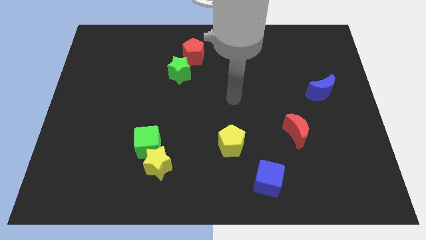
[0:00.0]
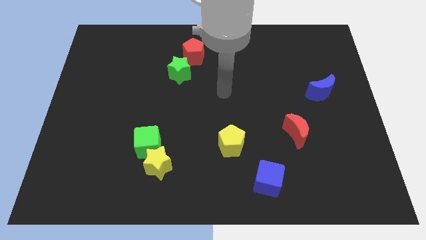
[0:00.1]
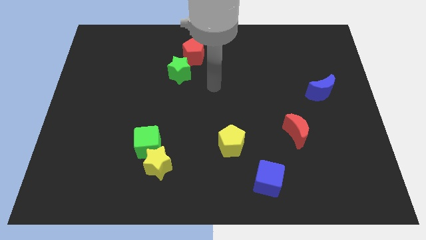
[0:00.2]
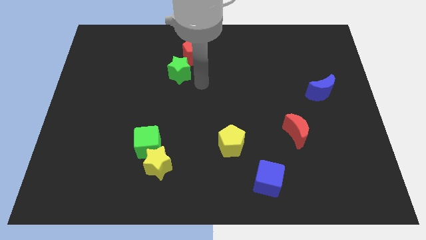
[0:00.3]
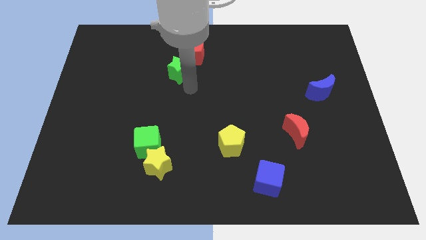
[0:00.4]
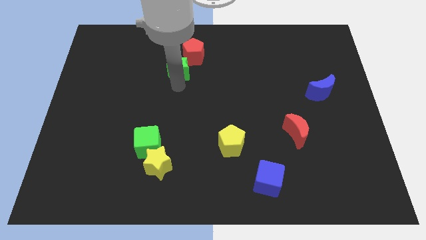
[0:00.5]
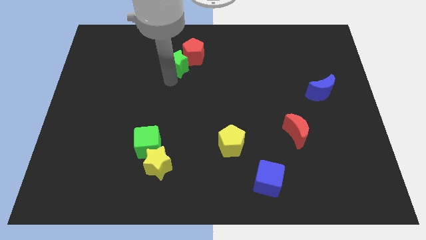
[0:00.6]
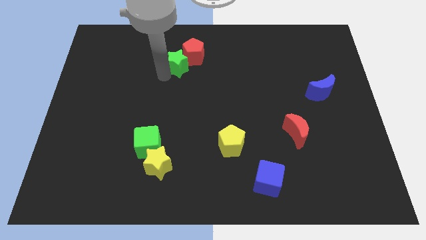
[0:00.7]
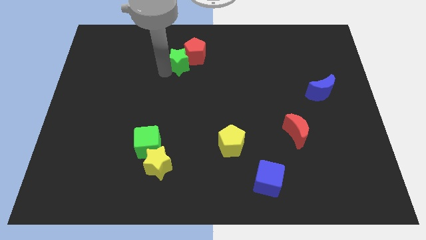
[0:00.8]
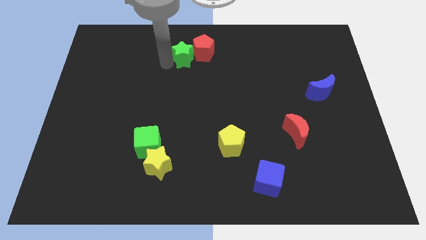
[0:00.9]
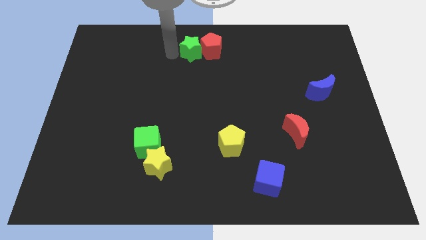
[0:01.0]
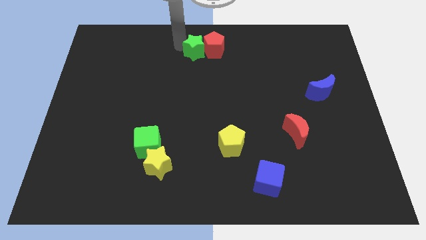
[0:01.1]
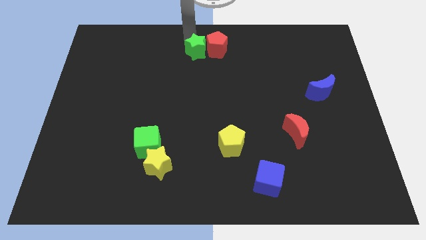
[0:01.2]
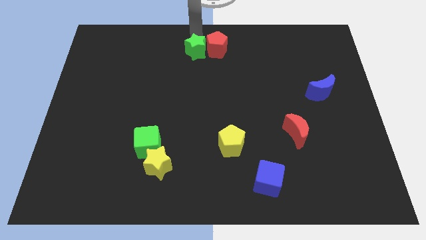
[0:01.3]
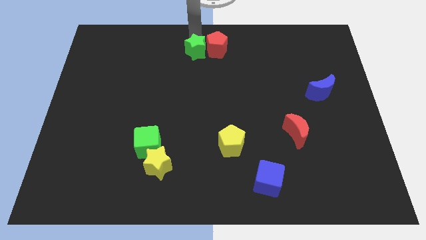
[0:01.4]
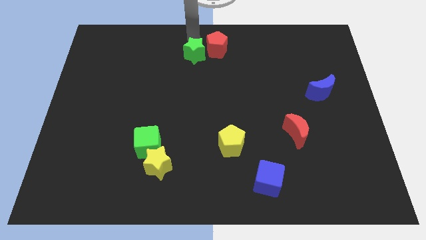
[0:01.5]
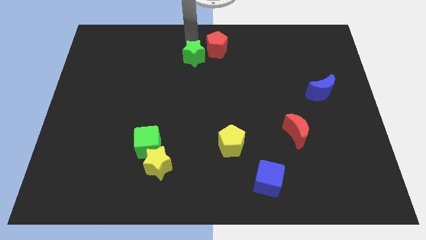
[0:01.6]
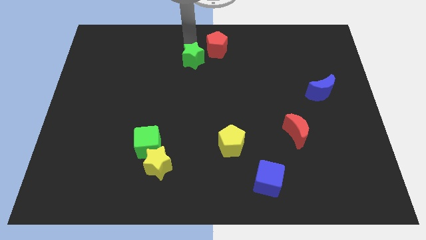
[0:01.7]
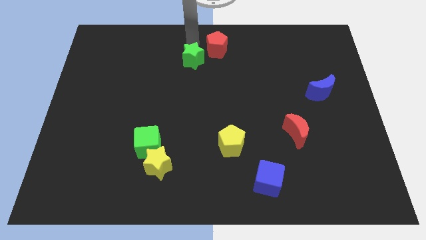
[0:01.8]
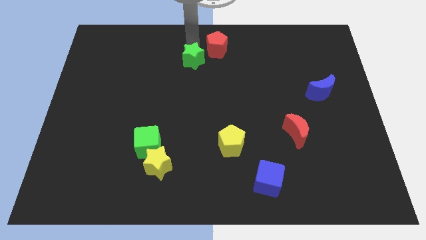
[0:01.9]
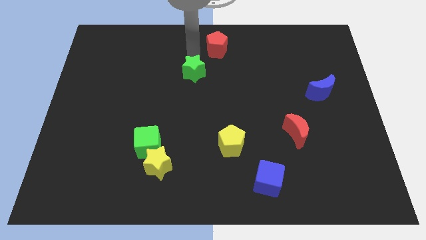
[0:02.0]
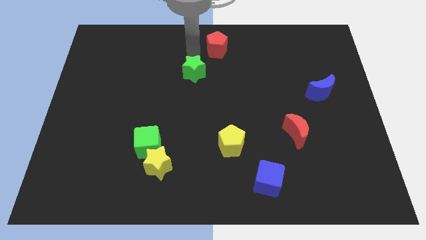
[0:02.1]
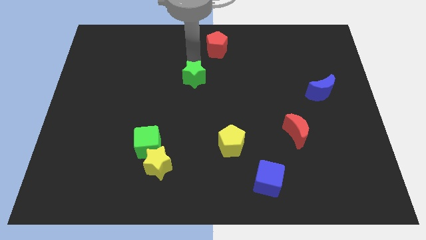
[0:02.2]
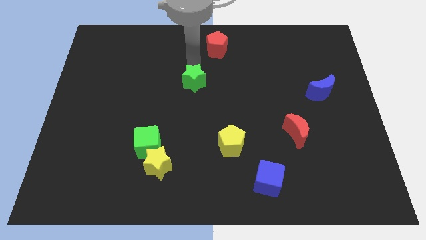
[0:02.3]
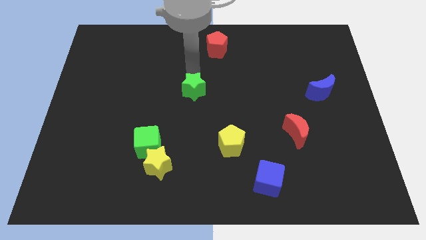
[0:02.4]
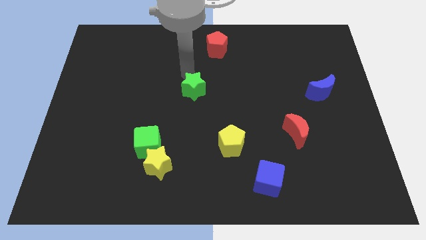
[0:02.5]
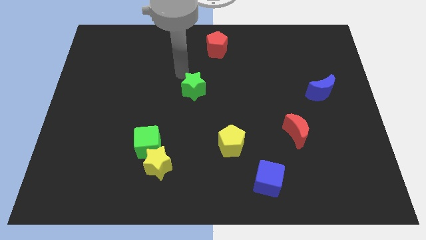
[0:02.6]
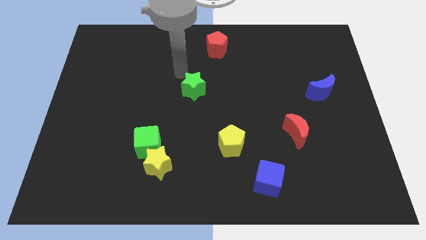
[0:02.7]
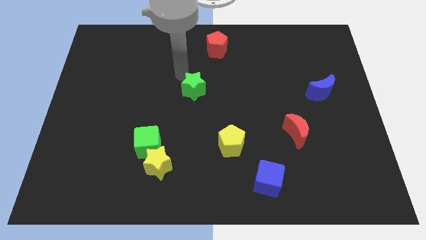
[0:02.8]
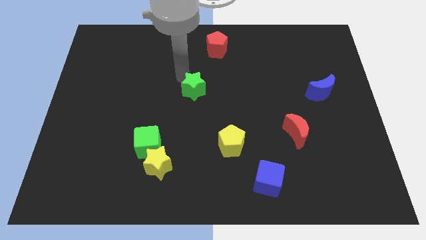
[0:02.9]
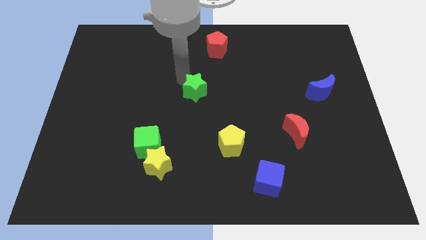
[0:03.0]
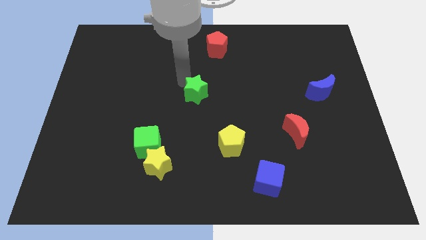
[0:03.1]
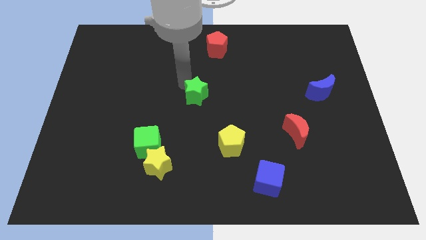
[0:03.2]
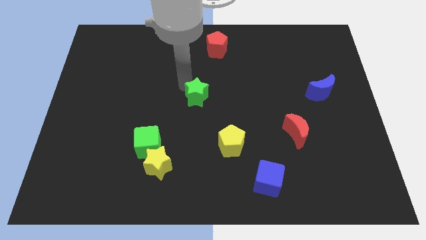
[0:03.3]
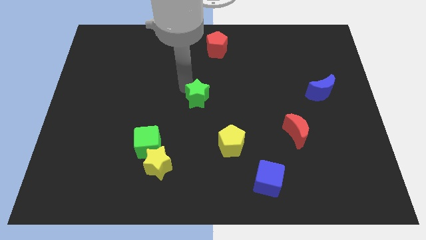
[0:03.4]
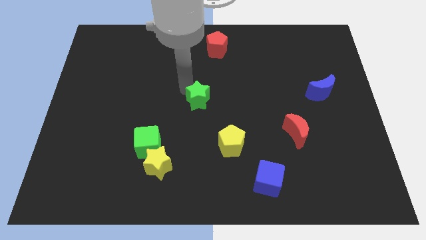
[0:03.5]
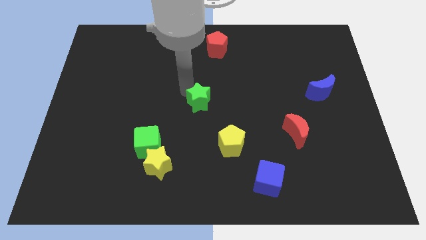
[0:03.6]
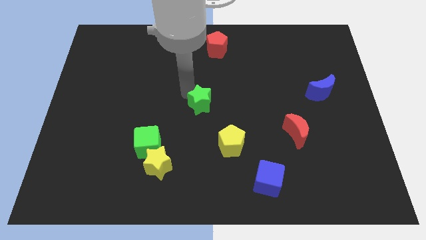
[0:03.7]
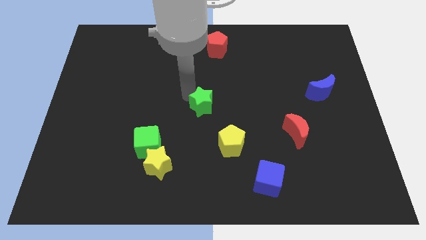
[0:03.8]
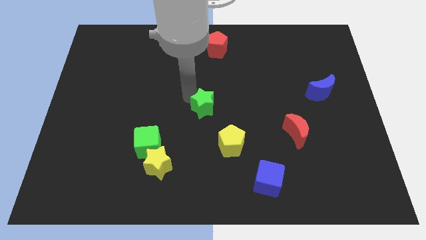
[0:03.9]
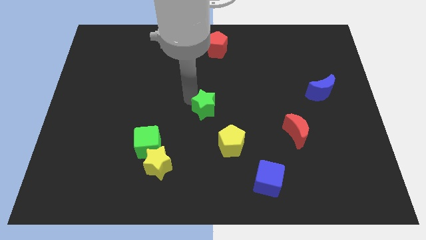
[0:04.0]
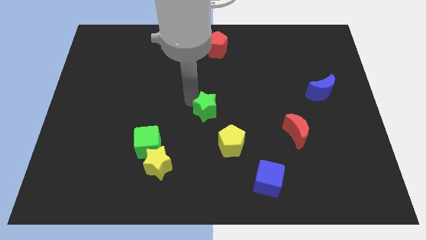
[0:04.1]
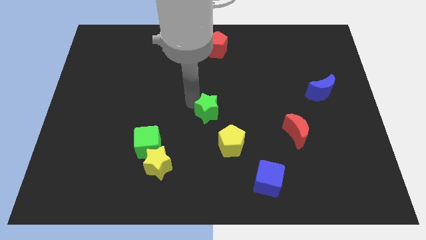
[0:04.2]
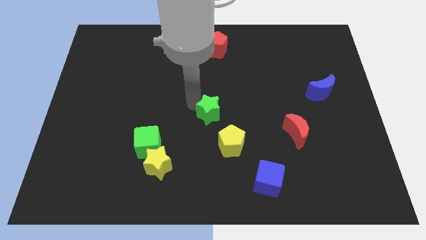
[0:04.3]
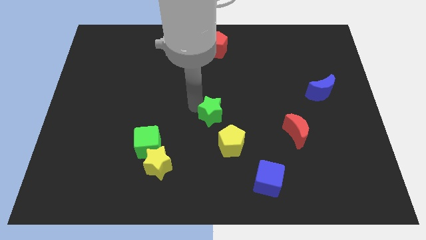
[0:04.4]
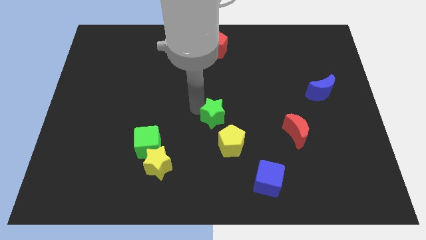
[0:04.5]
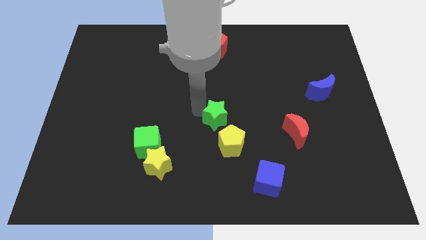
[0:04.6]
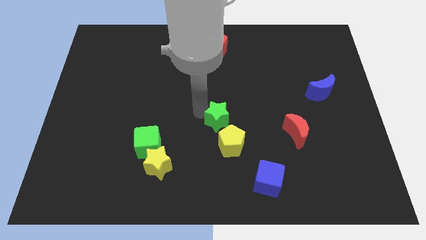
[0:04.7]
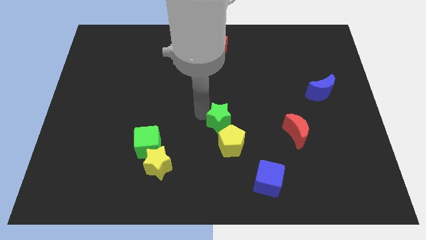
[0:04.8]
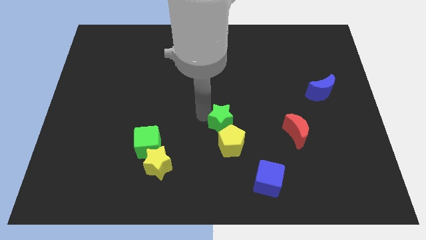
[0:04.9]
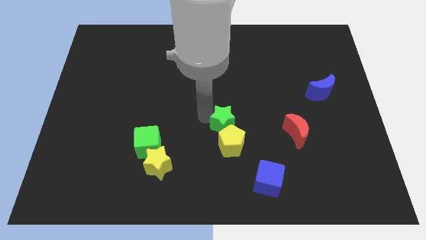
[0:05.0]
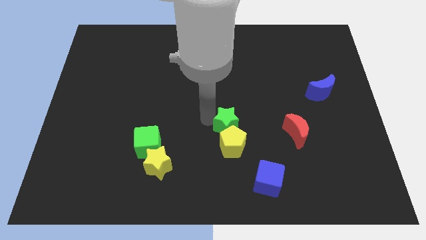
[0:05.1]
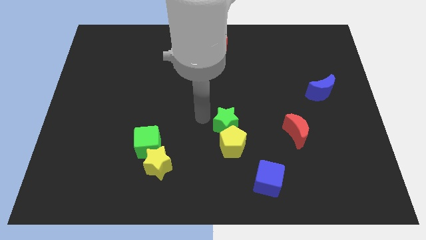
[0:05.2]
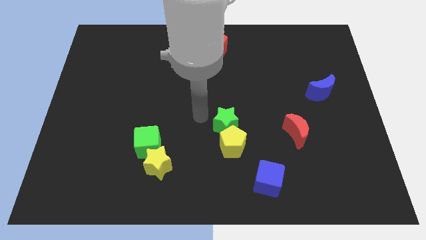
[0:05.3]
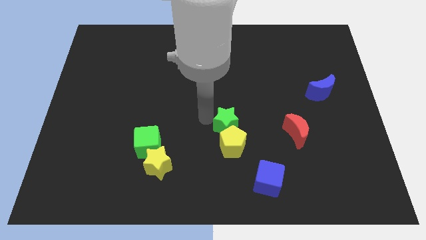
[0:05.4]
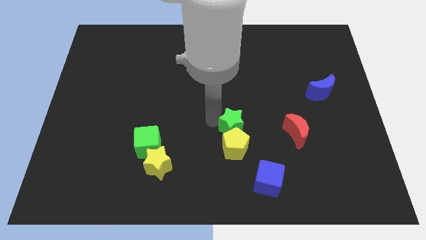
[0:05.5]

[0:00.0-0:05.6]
push the green star downwards and to the right

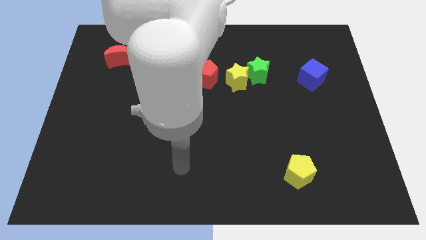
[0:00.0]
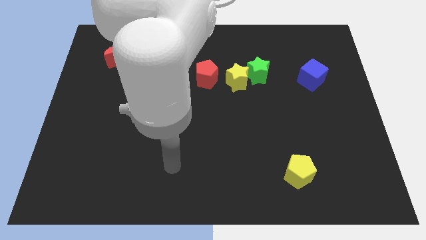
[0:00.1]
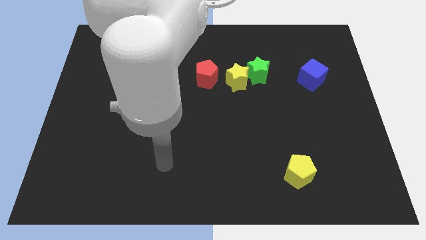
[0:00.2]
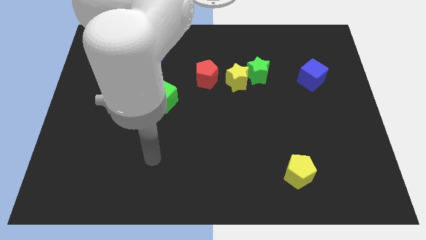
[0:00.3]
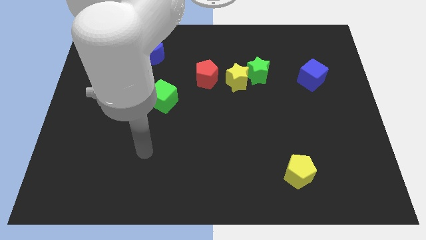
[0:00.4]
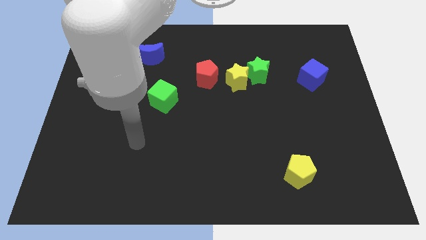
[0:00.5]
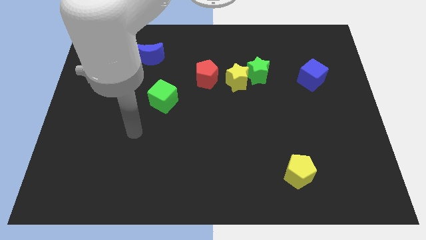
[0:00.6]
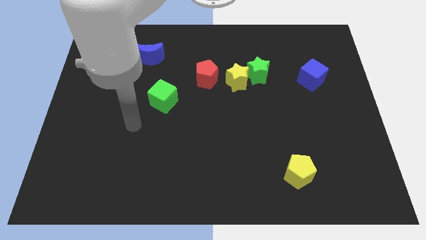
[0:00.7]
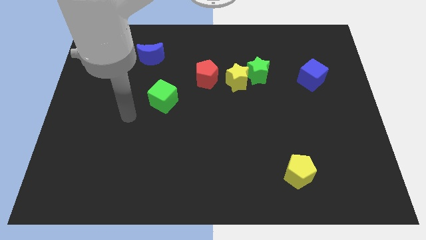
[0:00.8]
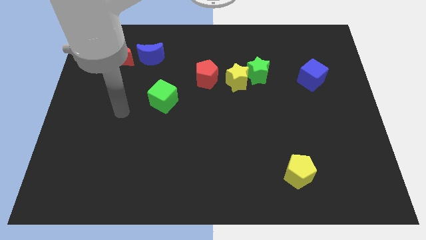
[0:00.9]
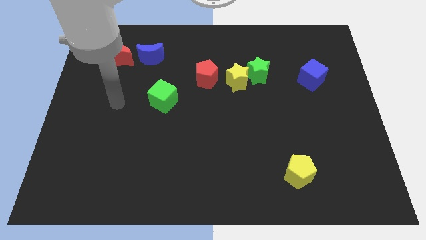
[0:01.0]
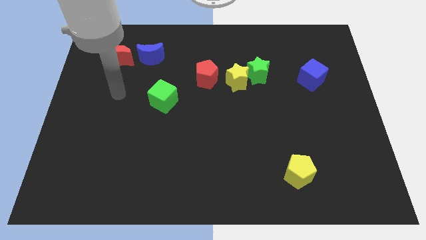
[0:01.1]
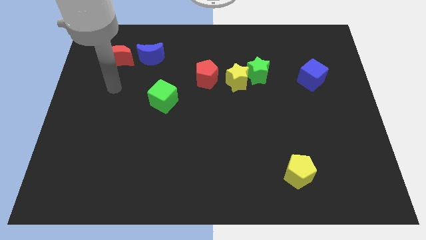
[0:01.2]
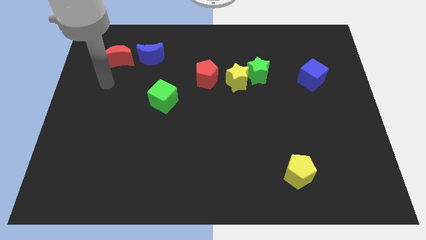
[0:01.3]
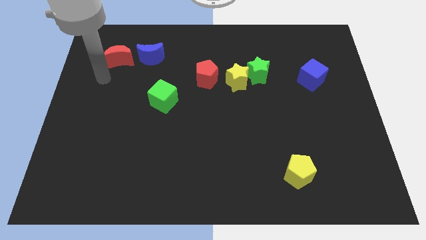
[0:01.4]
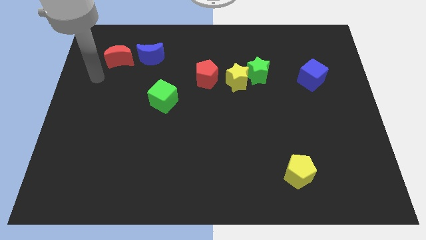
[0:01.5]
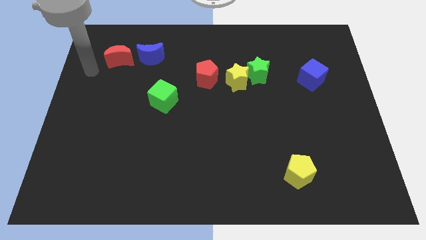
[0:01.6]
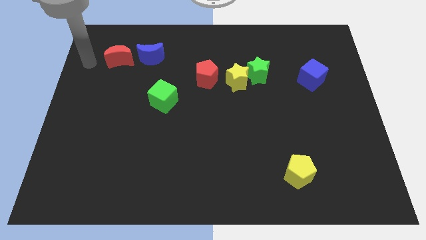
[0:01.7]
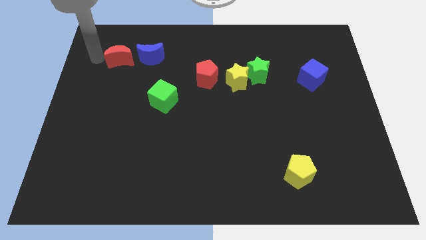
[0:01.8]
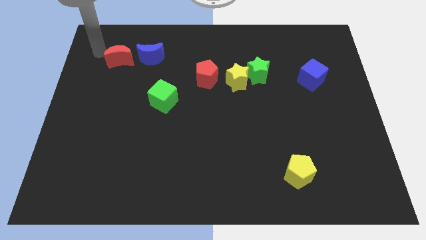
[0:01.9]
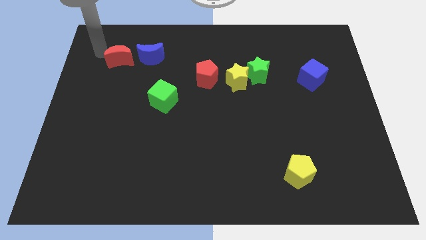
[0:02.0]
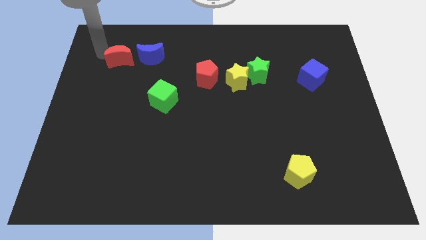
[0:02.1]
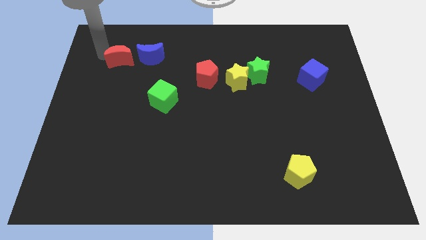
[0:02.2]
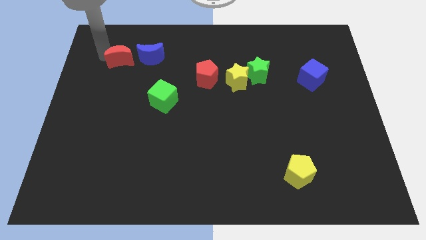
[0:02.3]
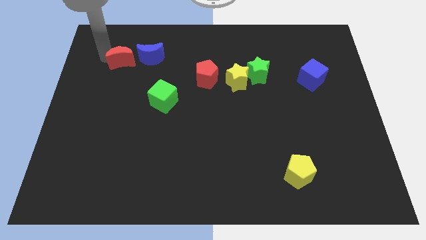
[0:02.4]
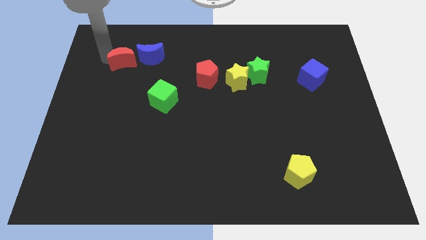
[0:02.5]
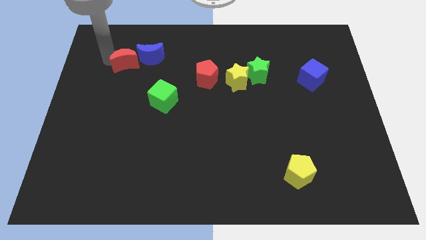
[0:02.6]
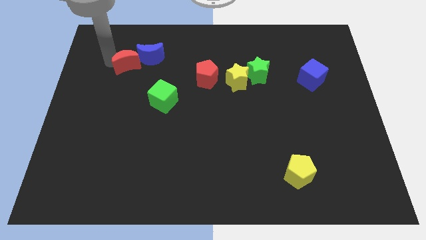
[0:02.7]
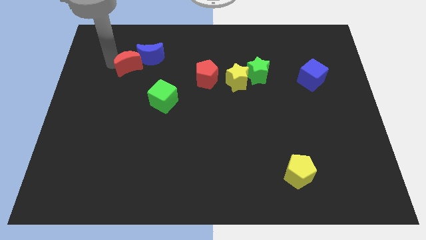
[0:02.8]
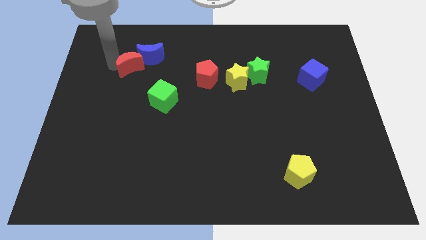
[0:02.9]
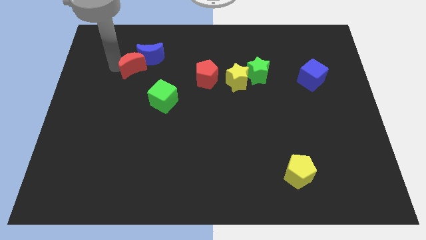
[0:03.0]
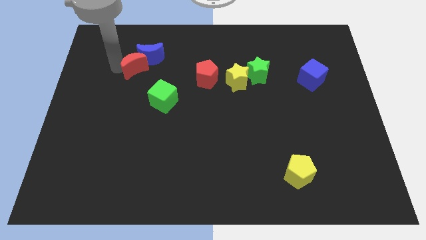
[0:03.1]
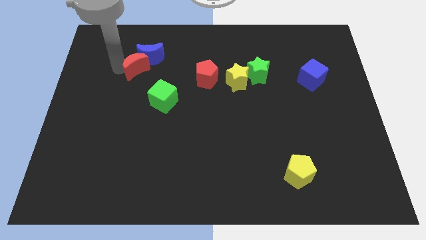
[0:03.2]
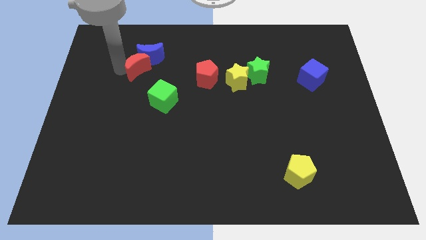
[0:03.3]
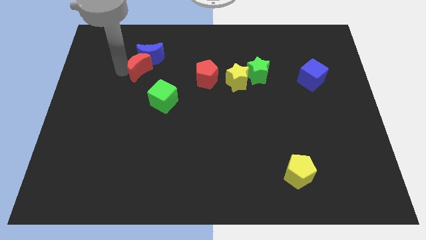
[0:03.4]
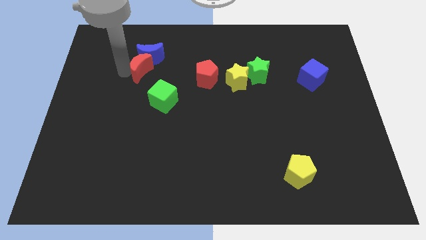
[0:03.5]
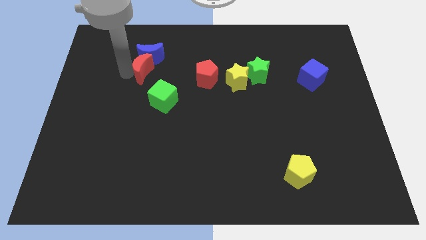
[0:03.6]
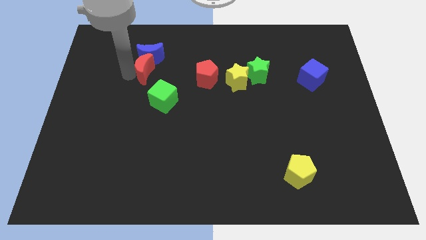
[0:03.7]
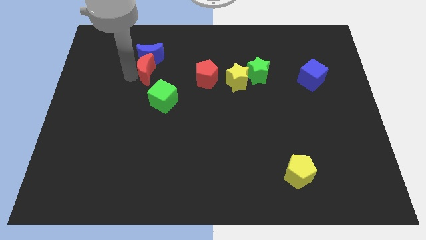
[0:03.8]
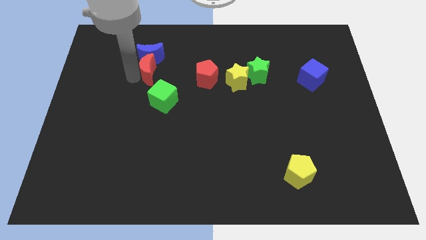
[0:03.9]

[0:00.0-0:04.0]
slightly push the red moon right
